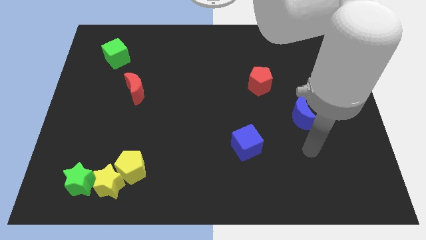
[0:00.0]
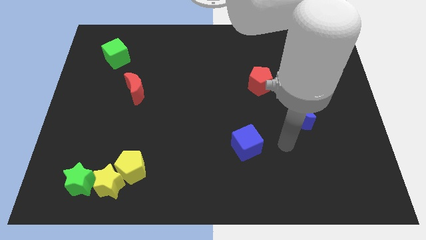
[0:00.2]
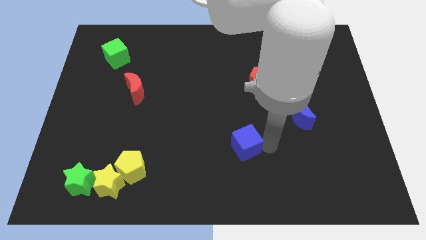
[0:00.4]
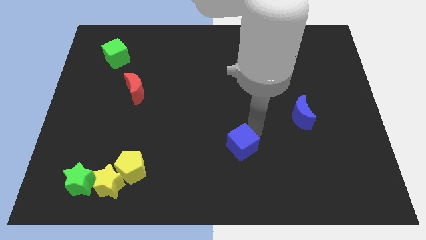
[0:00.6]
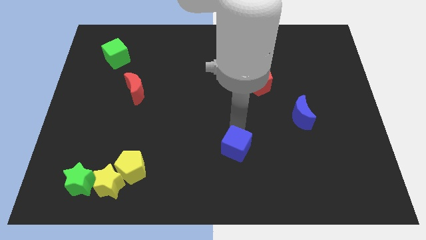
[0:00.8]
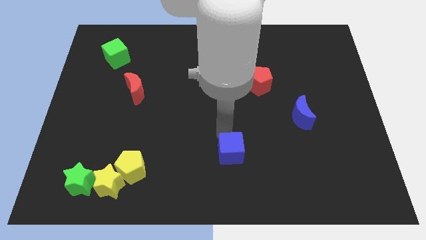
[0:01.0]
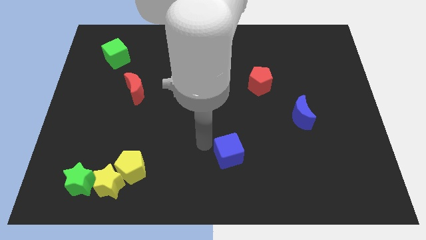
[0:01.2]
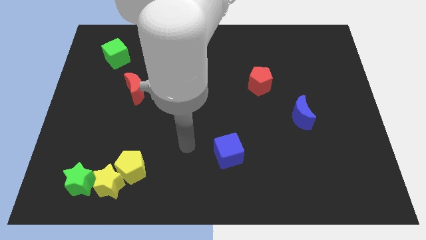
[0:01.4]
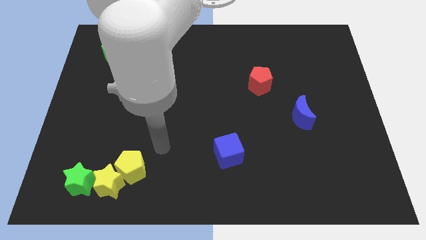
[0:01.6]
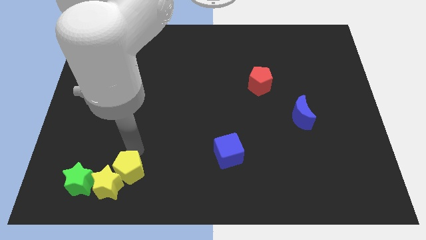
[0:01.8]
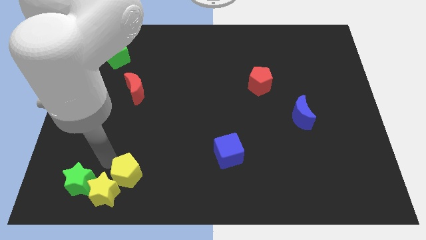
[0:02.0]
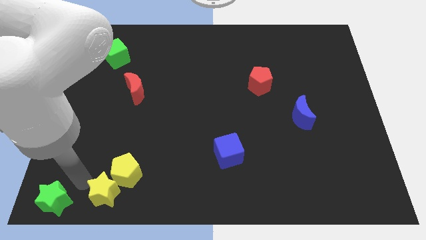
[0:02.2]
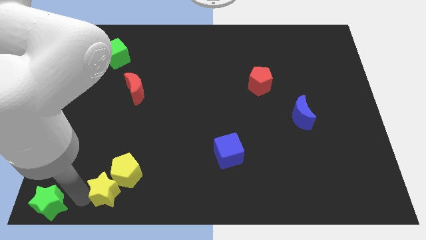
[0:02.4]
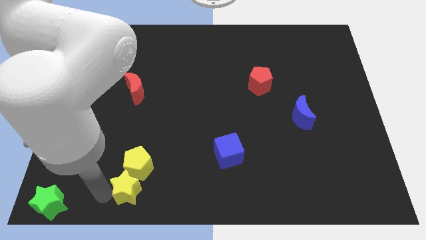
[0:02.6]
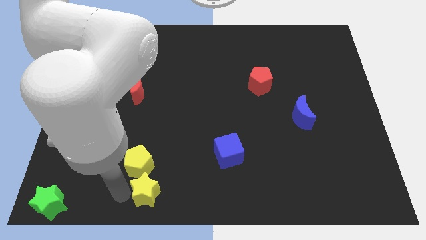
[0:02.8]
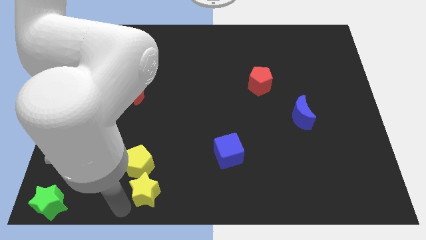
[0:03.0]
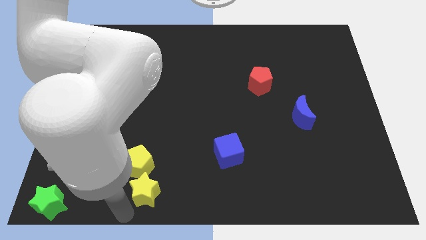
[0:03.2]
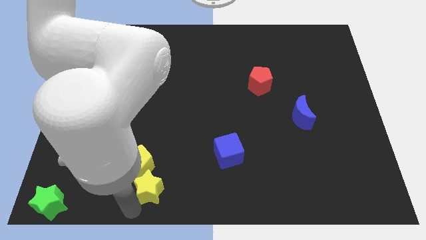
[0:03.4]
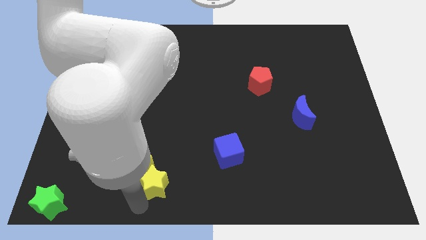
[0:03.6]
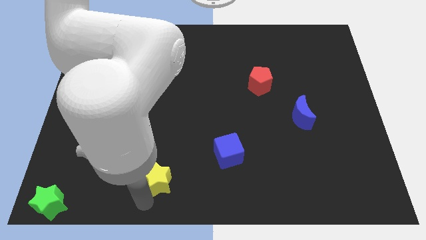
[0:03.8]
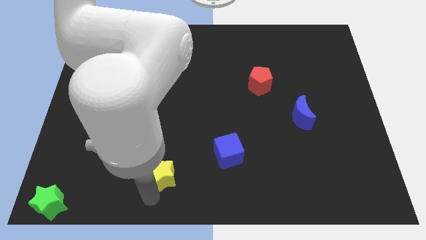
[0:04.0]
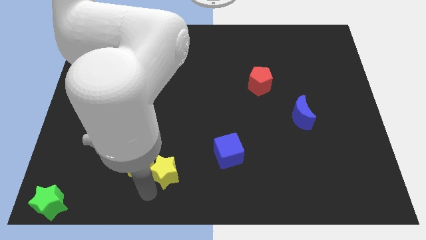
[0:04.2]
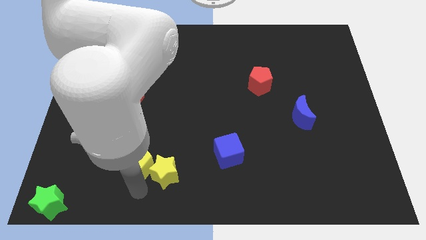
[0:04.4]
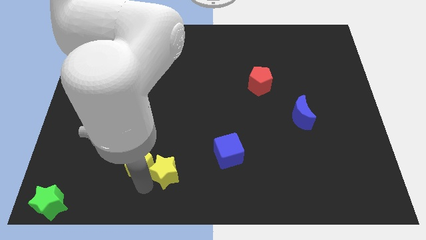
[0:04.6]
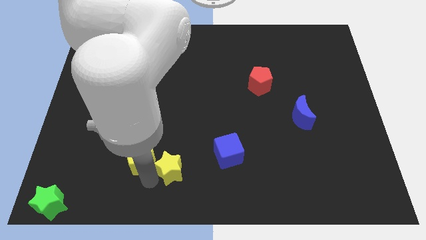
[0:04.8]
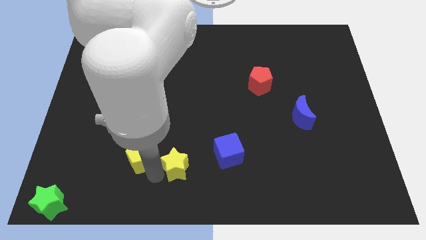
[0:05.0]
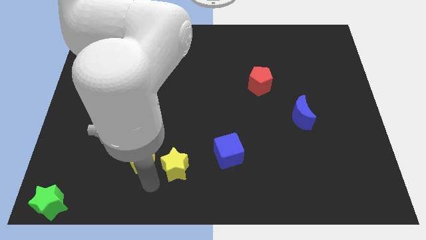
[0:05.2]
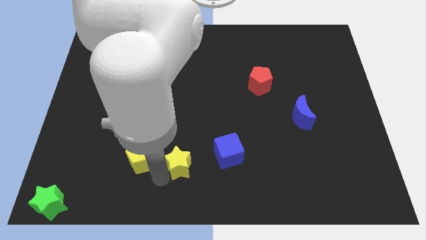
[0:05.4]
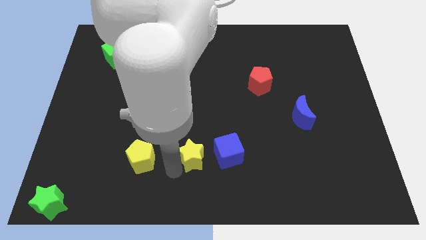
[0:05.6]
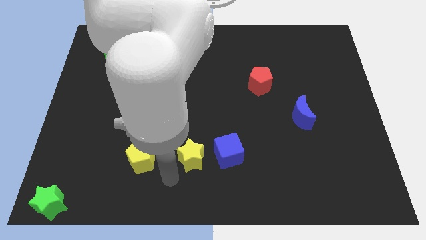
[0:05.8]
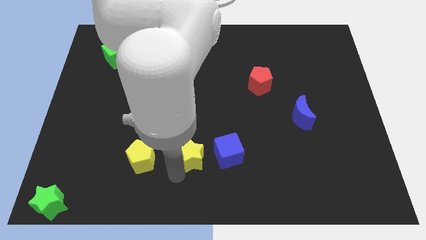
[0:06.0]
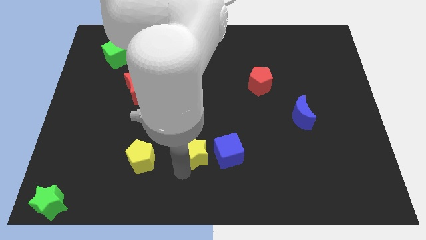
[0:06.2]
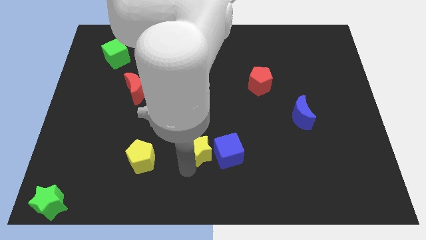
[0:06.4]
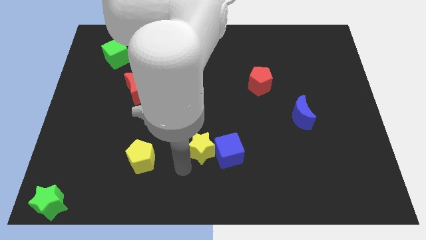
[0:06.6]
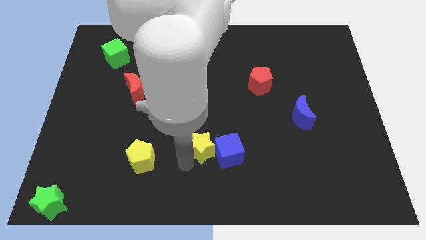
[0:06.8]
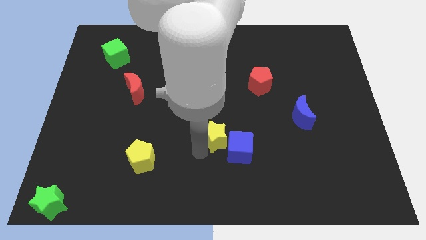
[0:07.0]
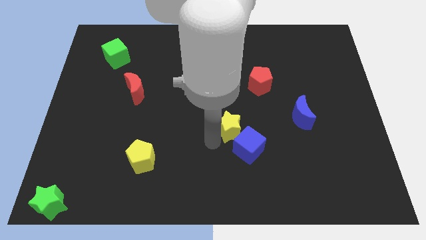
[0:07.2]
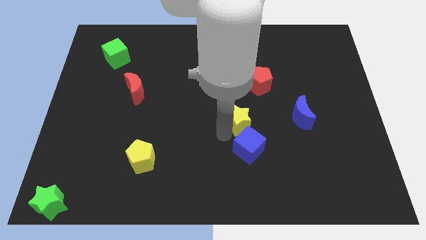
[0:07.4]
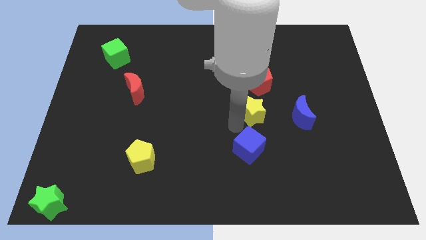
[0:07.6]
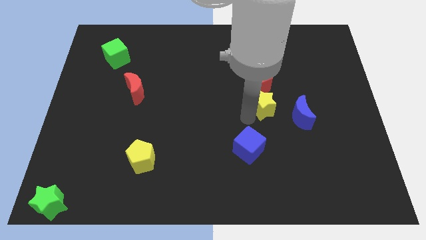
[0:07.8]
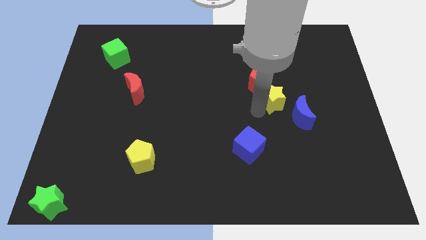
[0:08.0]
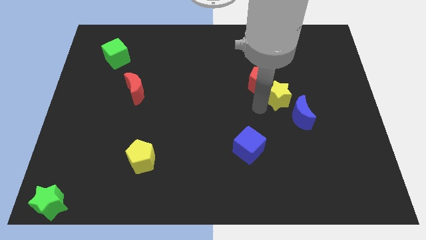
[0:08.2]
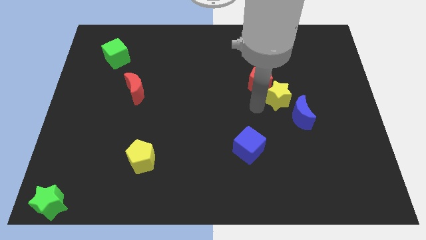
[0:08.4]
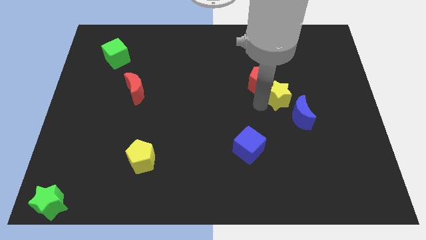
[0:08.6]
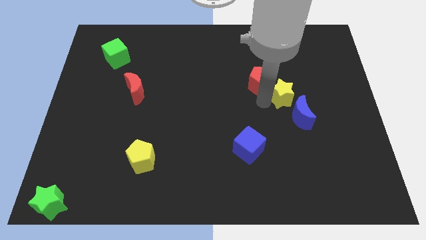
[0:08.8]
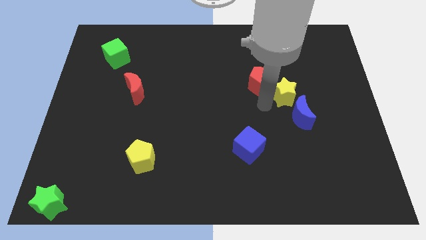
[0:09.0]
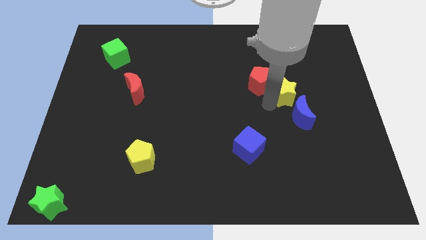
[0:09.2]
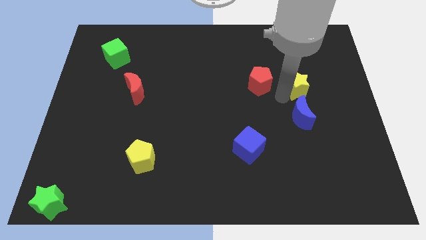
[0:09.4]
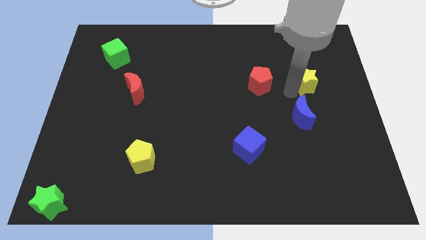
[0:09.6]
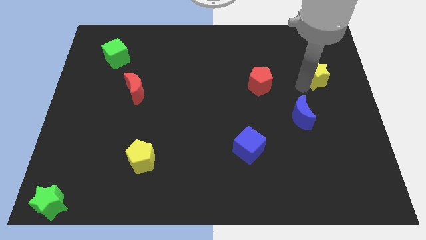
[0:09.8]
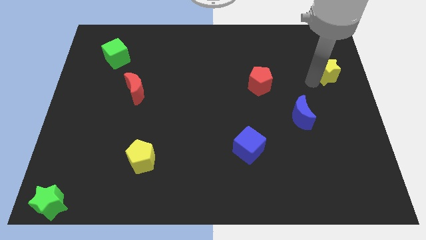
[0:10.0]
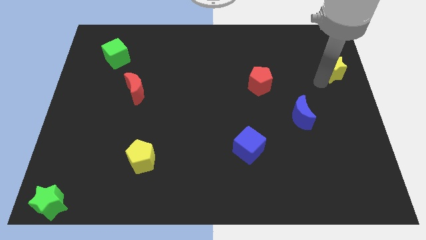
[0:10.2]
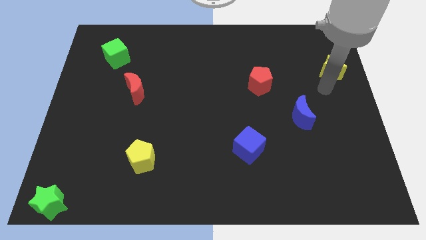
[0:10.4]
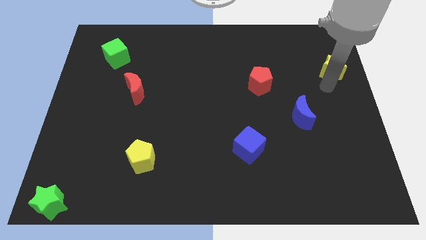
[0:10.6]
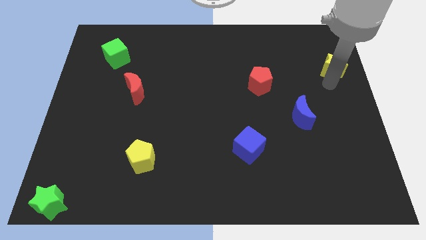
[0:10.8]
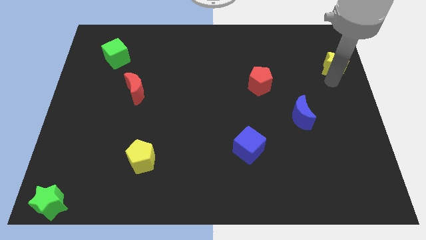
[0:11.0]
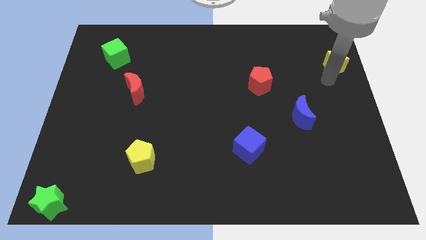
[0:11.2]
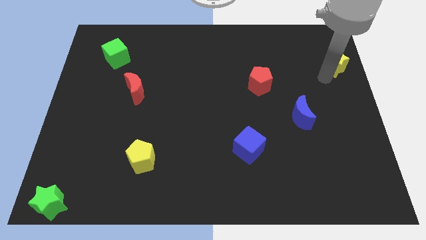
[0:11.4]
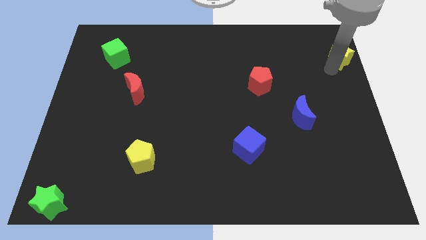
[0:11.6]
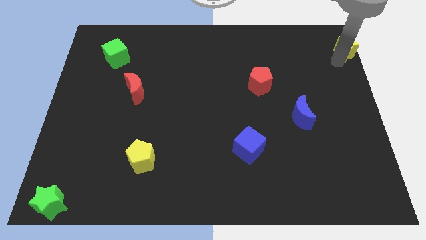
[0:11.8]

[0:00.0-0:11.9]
push the yellow star to the upper right corner

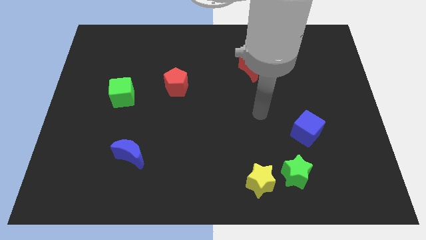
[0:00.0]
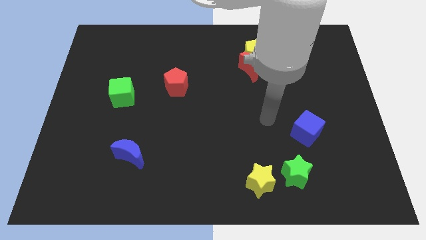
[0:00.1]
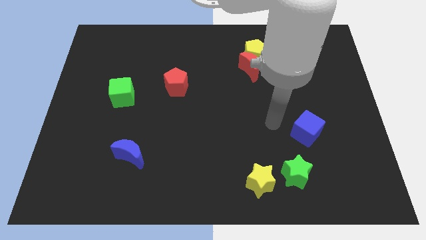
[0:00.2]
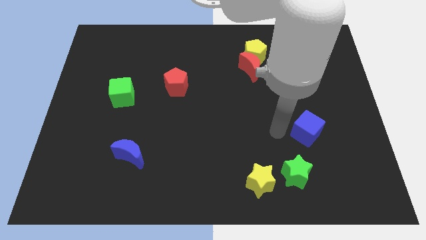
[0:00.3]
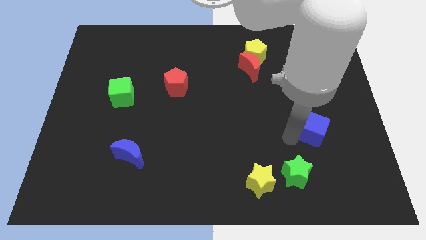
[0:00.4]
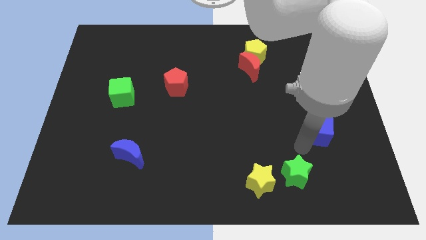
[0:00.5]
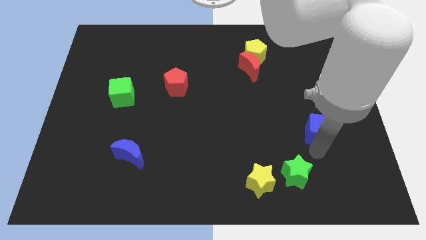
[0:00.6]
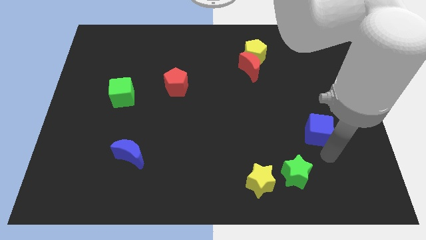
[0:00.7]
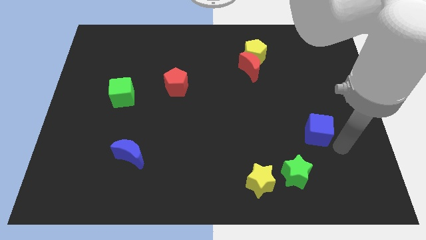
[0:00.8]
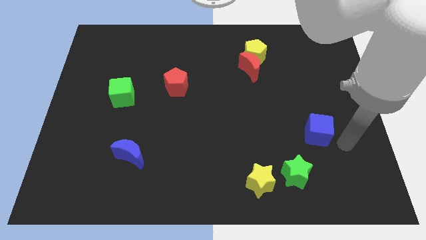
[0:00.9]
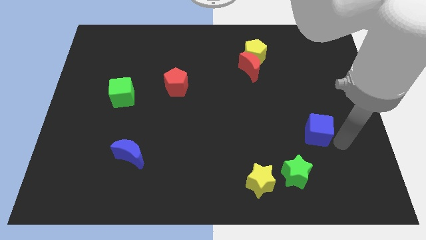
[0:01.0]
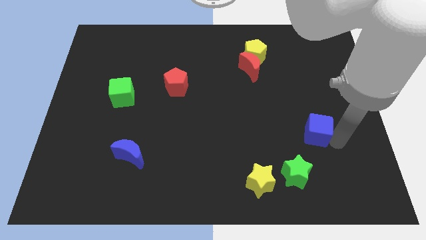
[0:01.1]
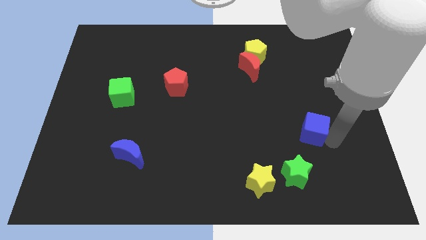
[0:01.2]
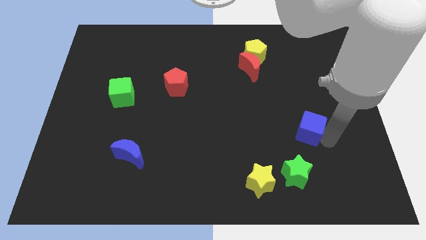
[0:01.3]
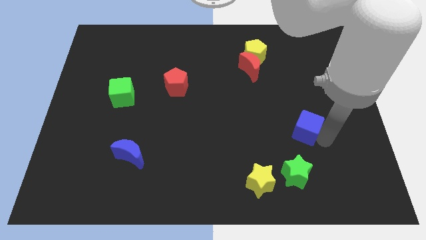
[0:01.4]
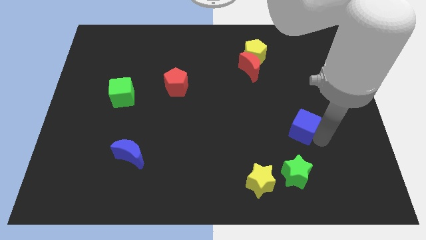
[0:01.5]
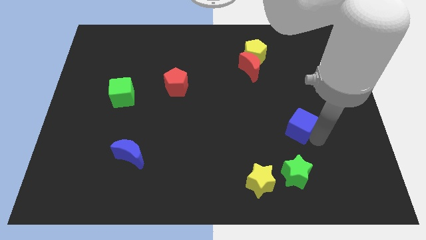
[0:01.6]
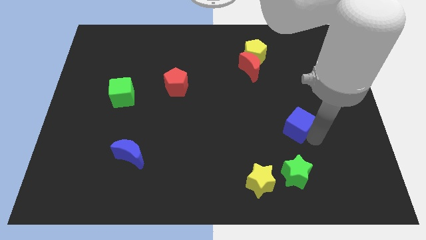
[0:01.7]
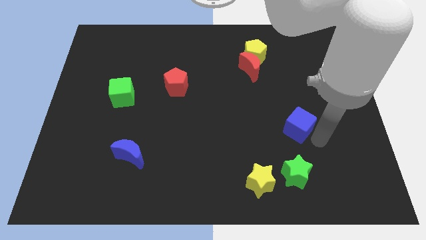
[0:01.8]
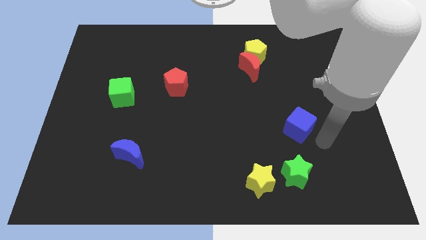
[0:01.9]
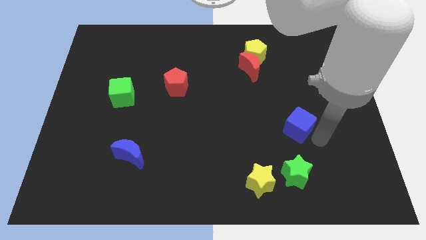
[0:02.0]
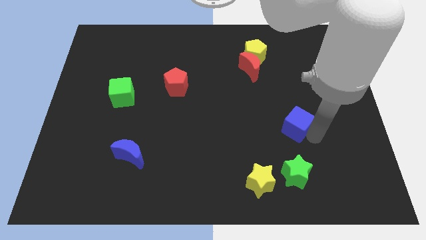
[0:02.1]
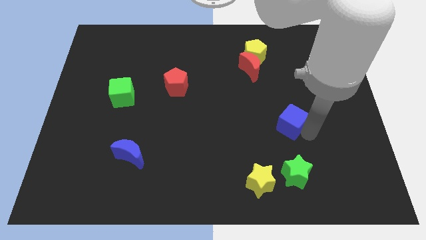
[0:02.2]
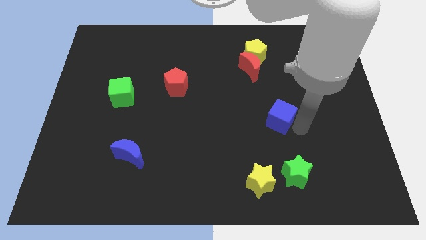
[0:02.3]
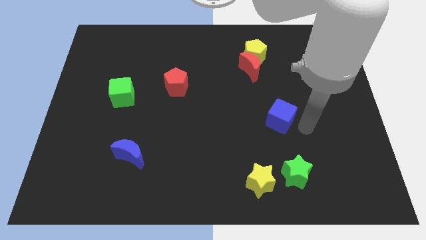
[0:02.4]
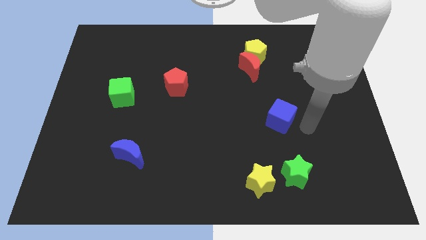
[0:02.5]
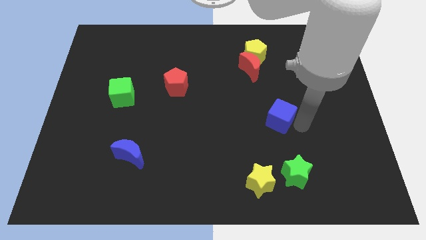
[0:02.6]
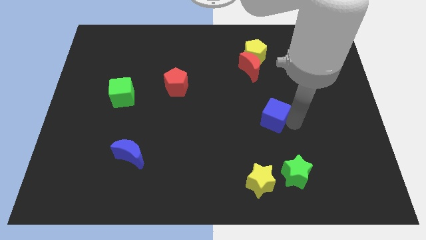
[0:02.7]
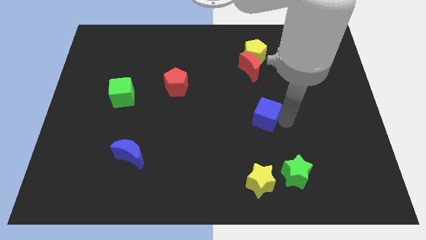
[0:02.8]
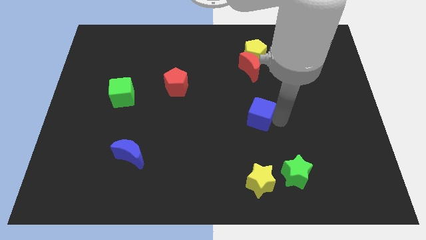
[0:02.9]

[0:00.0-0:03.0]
put the blue cube to the center of the board
